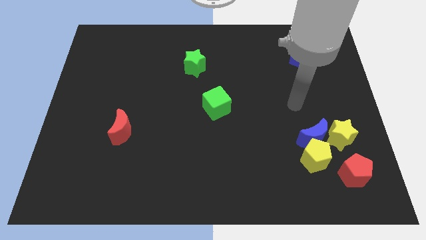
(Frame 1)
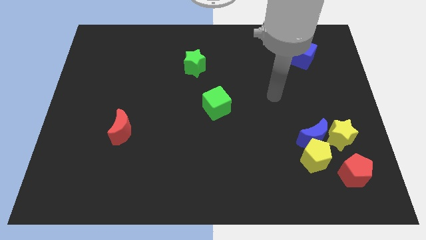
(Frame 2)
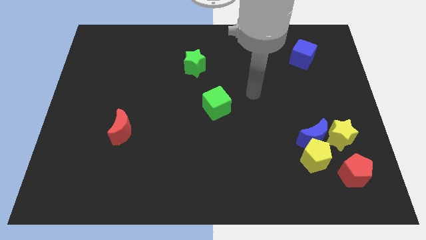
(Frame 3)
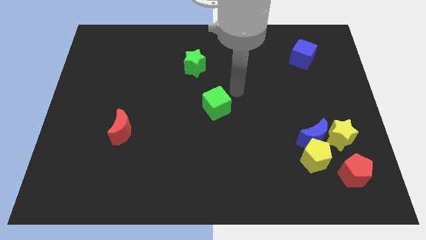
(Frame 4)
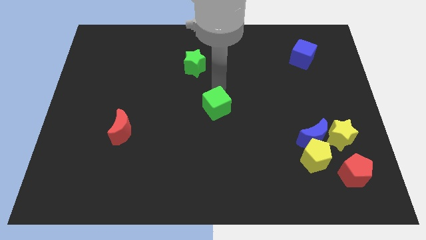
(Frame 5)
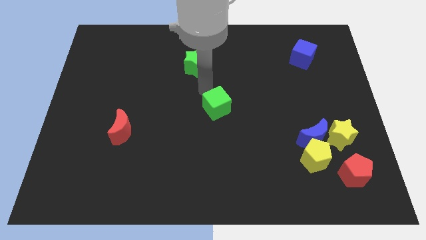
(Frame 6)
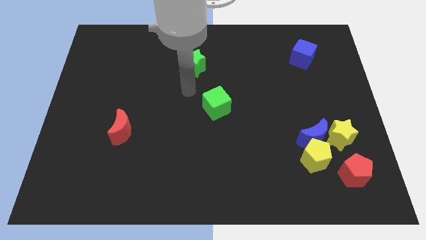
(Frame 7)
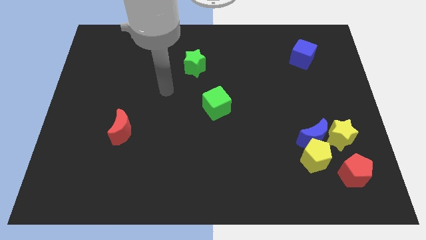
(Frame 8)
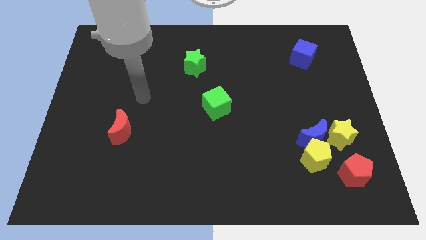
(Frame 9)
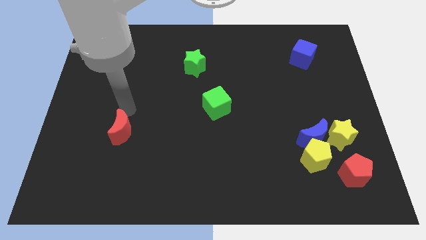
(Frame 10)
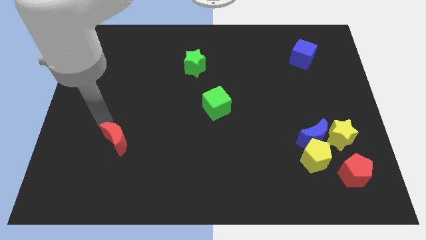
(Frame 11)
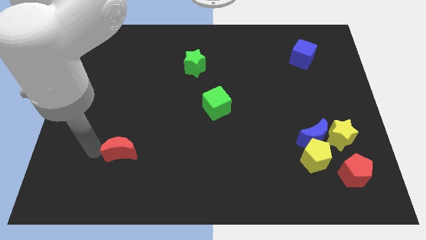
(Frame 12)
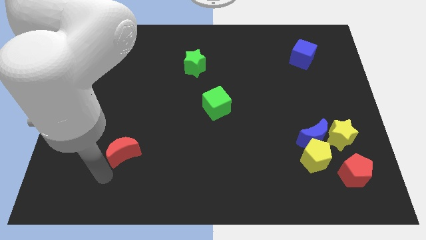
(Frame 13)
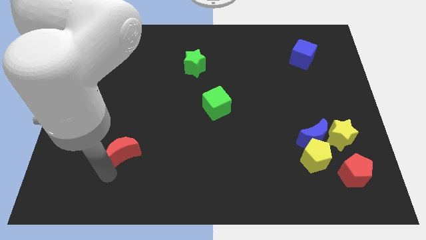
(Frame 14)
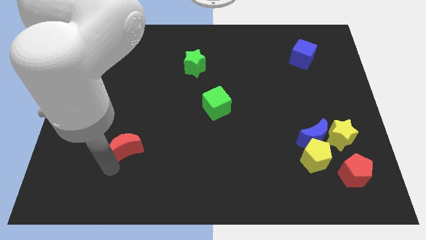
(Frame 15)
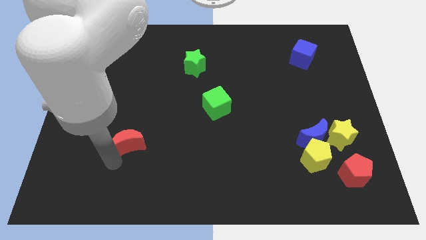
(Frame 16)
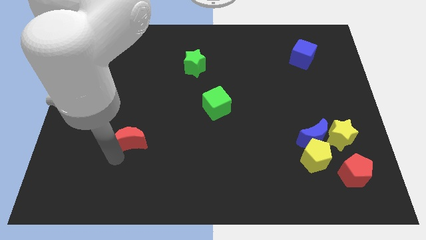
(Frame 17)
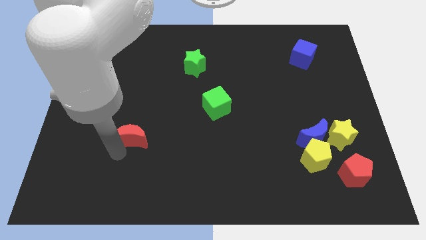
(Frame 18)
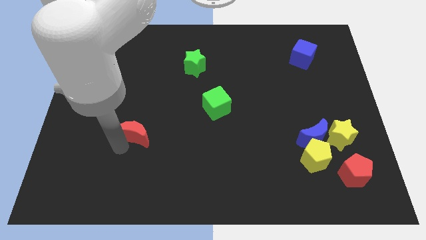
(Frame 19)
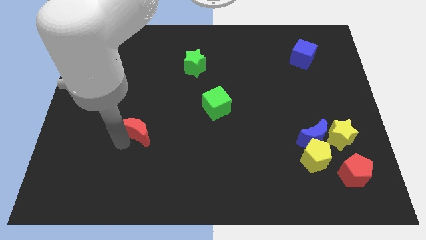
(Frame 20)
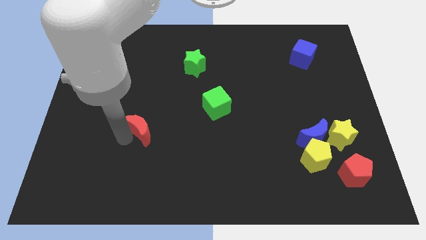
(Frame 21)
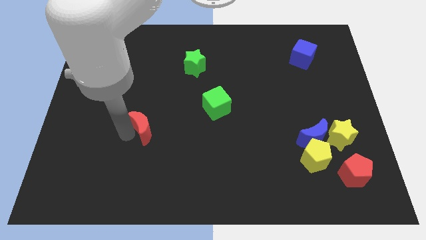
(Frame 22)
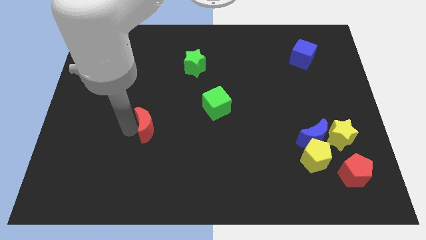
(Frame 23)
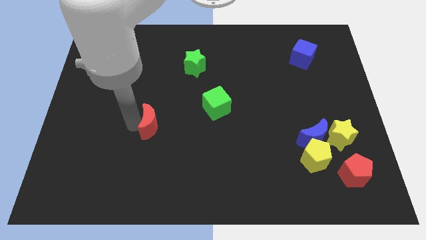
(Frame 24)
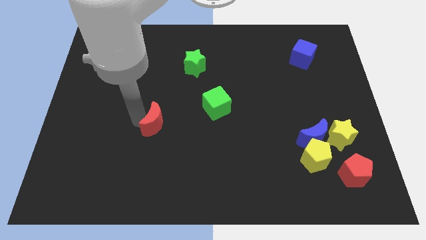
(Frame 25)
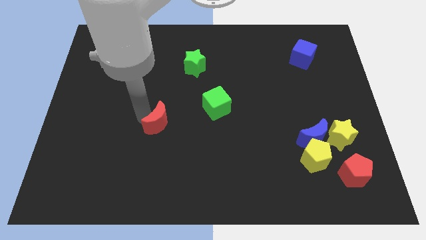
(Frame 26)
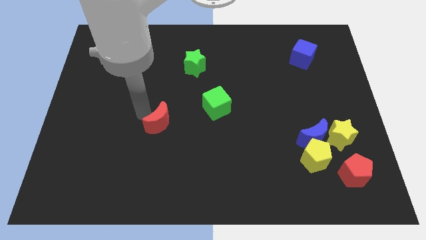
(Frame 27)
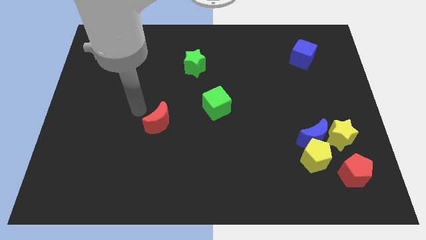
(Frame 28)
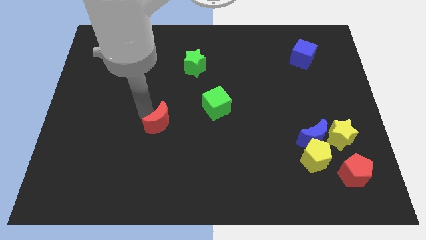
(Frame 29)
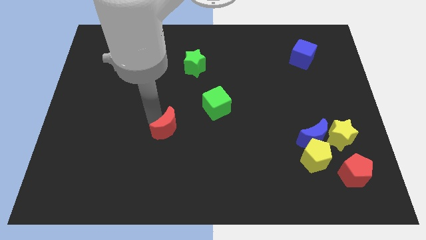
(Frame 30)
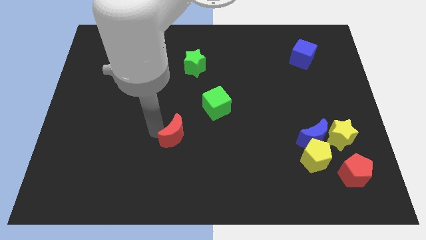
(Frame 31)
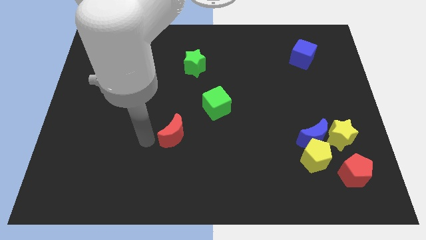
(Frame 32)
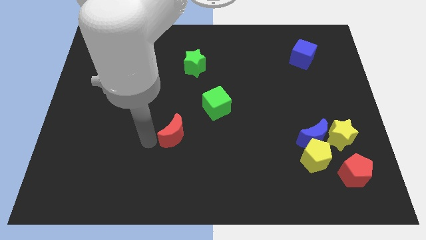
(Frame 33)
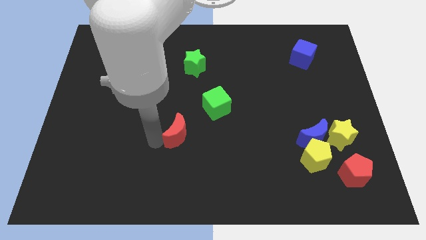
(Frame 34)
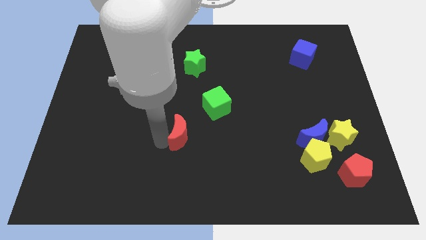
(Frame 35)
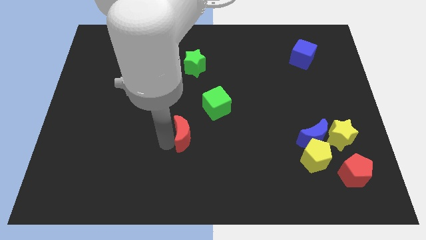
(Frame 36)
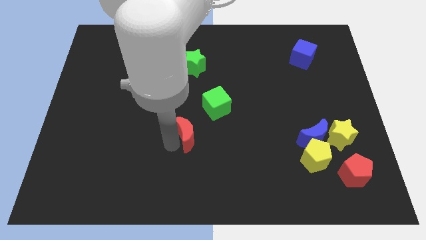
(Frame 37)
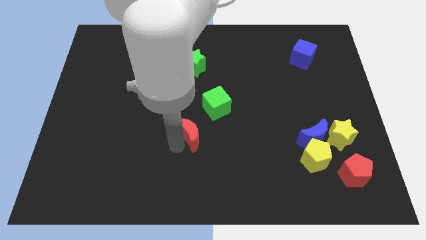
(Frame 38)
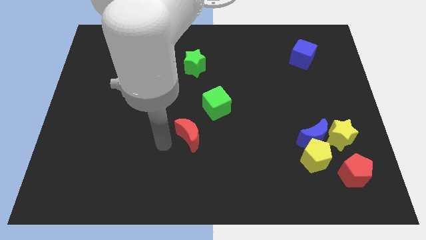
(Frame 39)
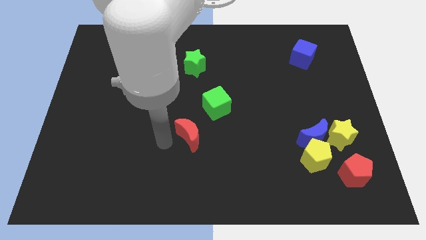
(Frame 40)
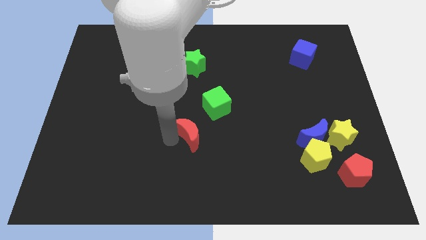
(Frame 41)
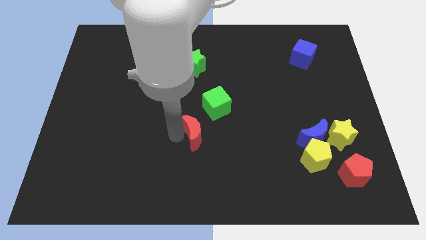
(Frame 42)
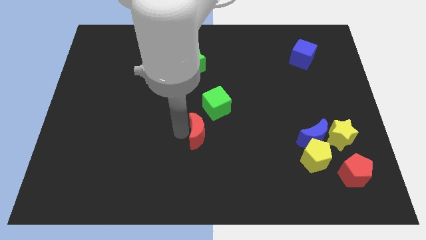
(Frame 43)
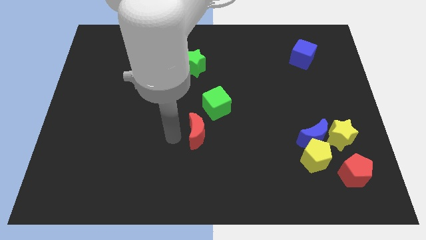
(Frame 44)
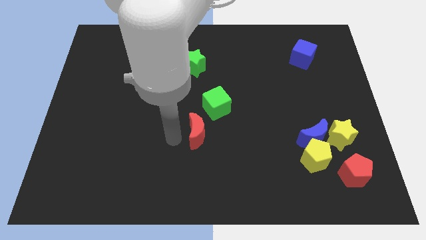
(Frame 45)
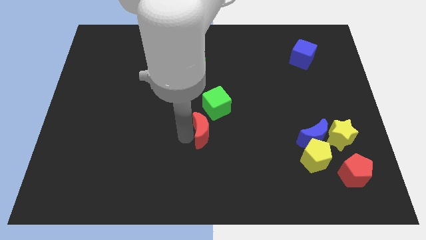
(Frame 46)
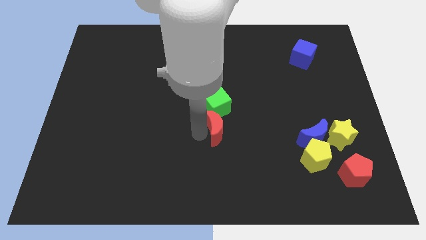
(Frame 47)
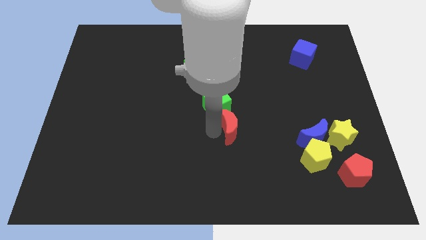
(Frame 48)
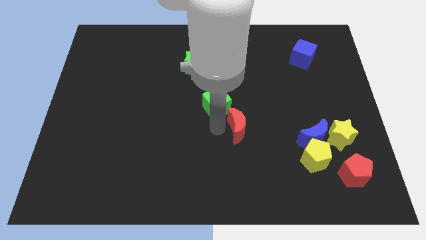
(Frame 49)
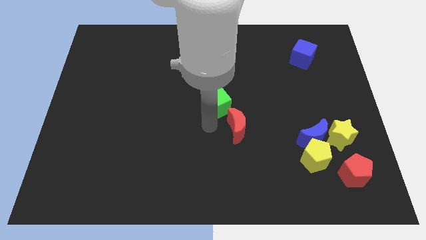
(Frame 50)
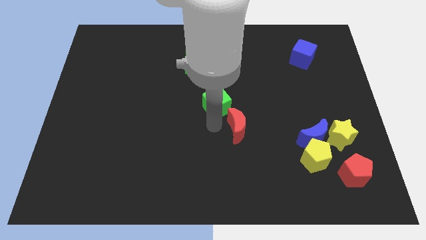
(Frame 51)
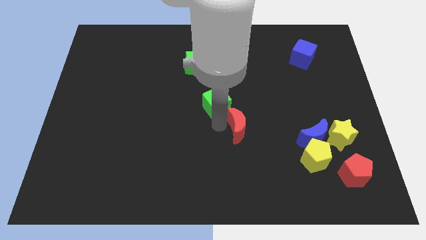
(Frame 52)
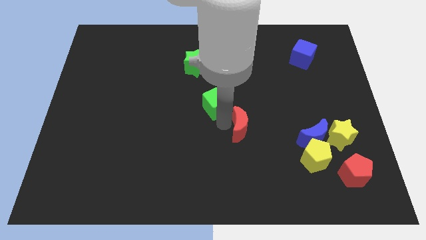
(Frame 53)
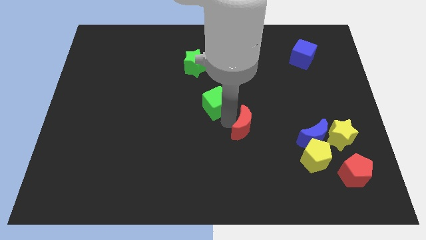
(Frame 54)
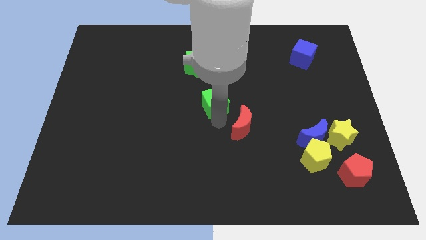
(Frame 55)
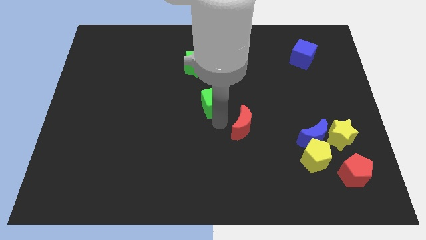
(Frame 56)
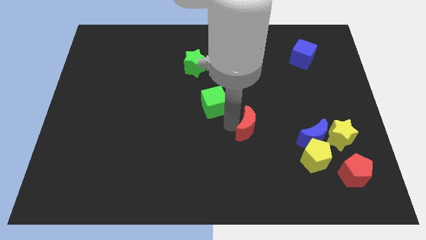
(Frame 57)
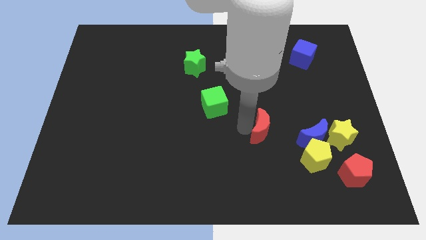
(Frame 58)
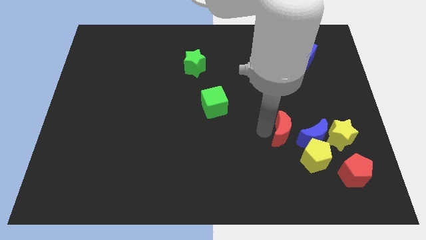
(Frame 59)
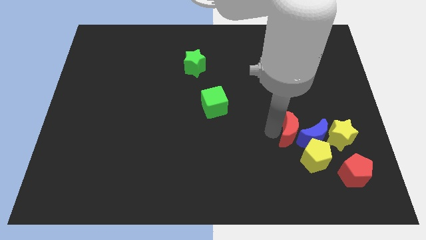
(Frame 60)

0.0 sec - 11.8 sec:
push the red moon towards the blue moon

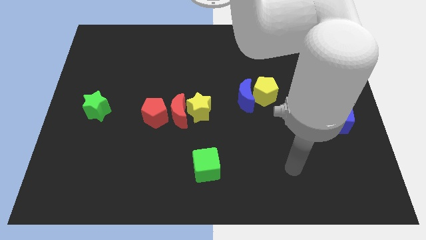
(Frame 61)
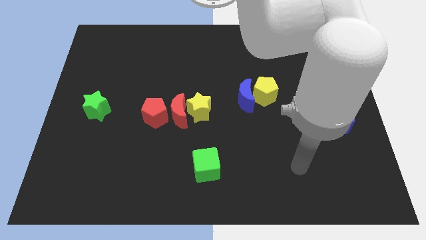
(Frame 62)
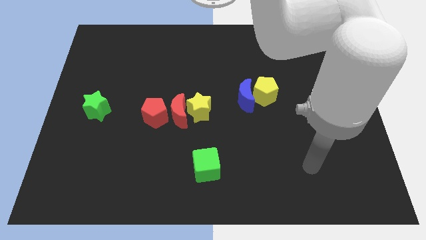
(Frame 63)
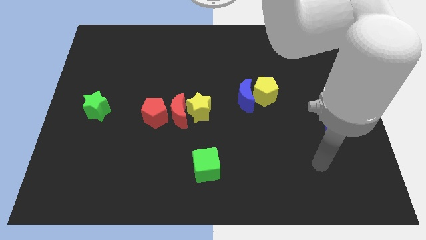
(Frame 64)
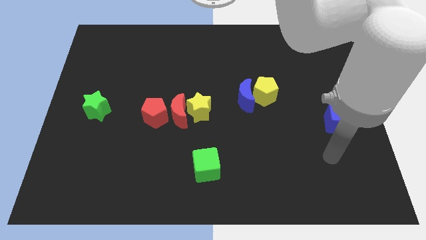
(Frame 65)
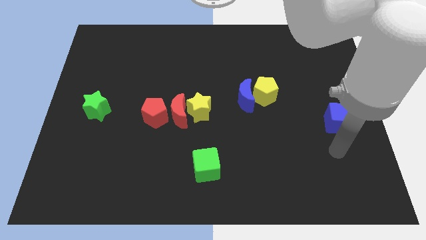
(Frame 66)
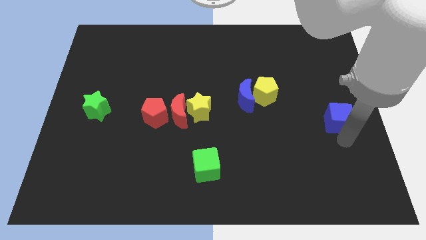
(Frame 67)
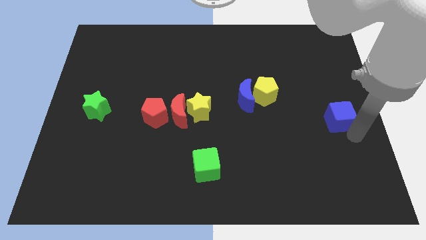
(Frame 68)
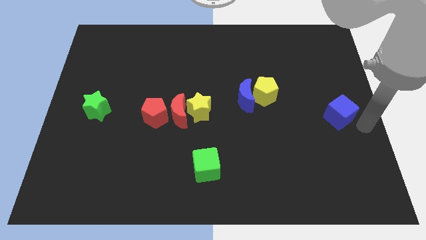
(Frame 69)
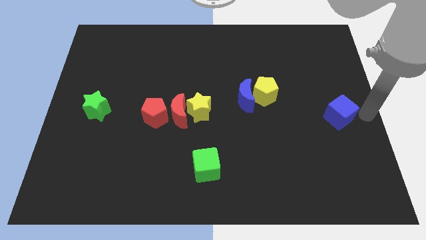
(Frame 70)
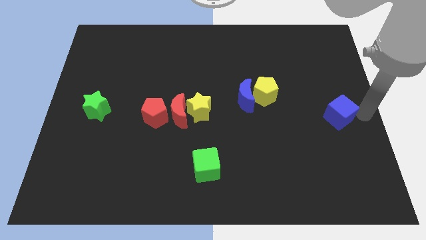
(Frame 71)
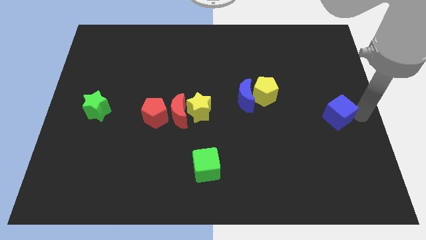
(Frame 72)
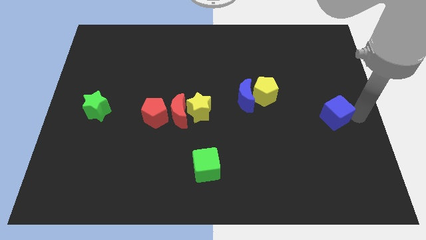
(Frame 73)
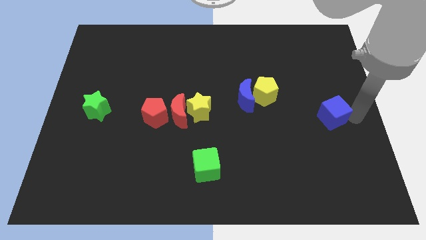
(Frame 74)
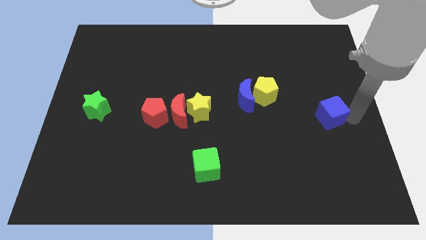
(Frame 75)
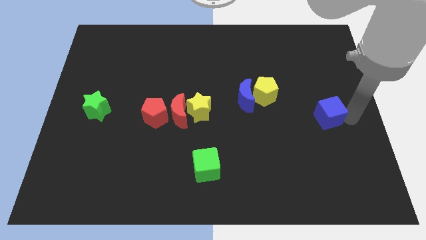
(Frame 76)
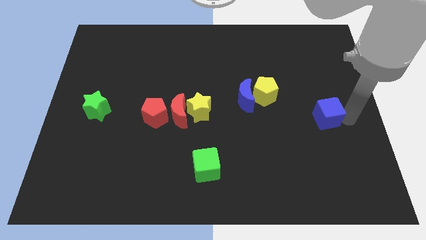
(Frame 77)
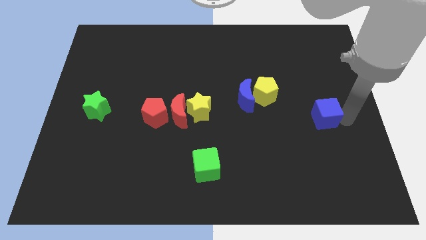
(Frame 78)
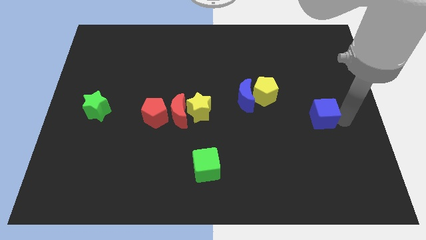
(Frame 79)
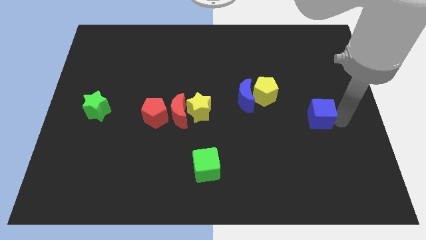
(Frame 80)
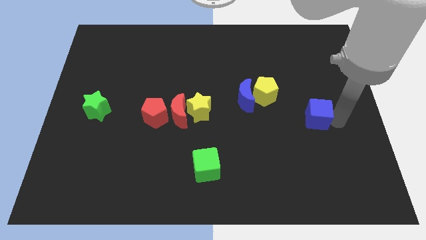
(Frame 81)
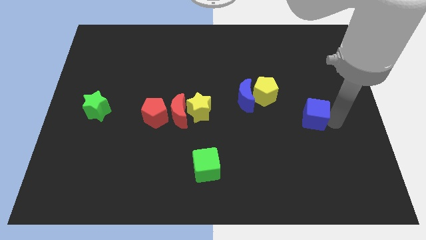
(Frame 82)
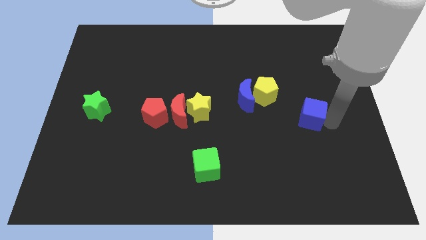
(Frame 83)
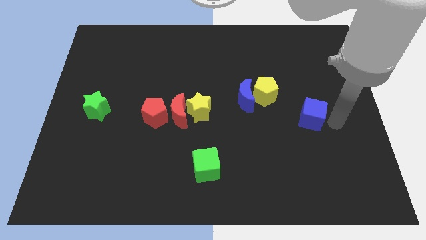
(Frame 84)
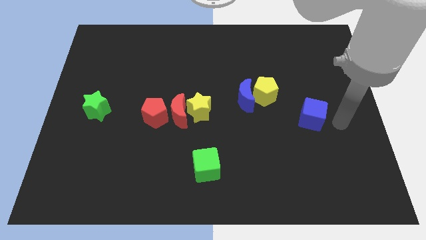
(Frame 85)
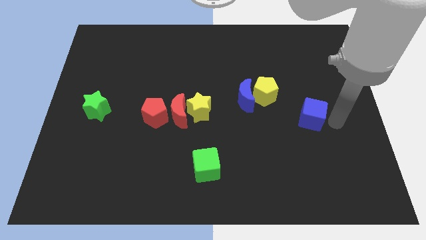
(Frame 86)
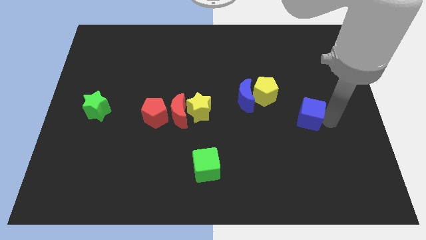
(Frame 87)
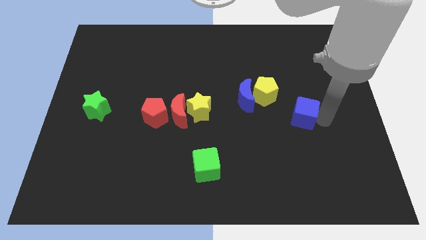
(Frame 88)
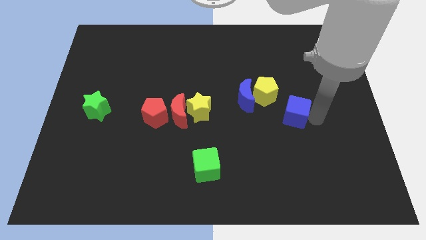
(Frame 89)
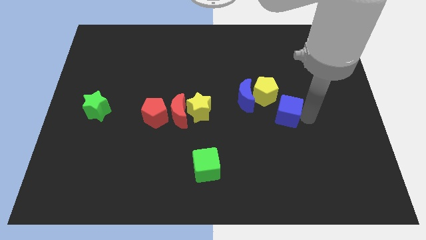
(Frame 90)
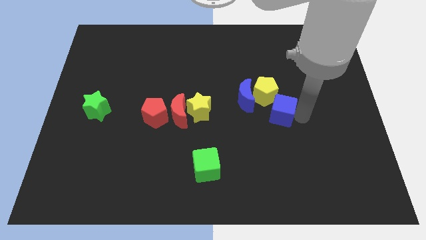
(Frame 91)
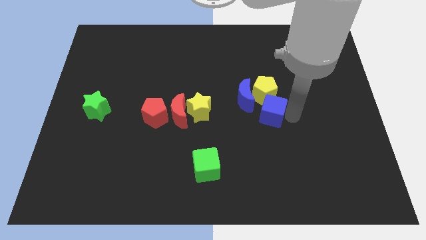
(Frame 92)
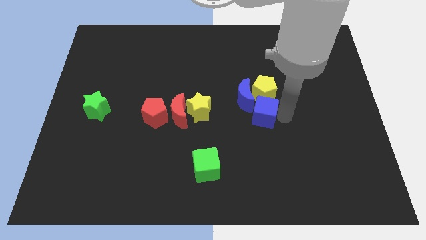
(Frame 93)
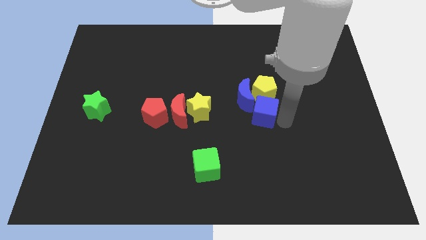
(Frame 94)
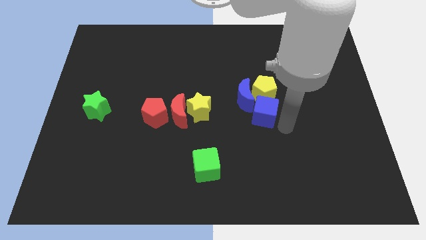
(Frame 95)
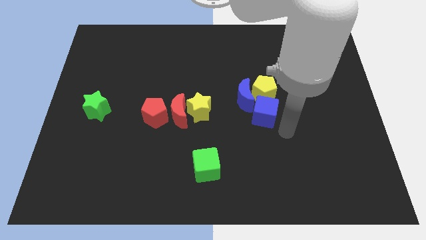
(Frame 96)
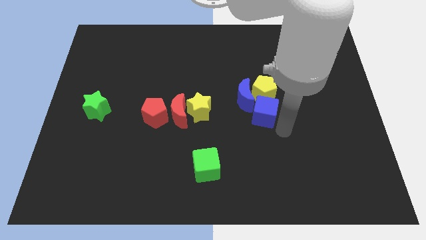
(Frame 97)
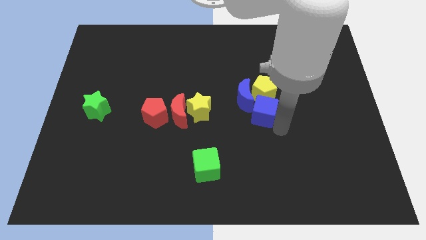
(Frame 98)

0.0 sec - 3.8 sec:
move the blue cube to the blue moon
